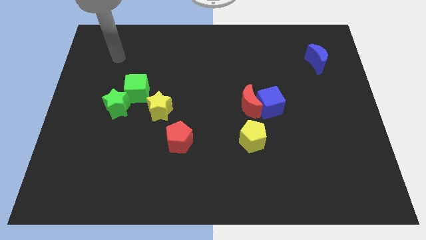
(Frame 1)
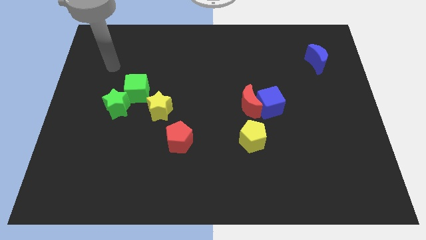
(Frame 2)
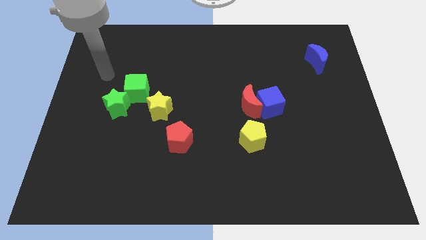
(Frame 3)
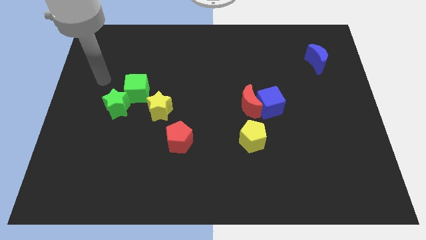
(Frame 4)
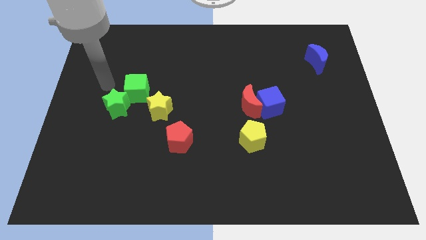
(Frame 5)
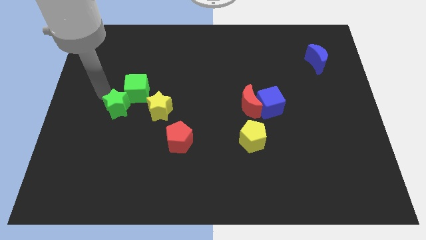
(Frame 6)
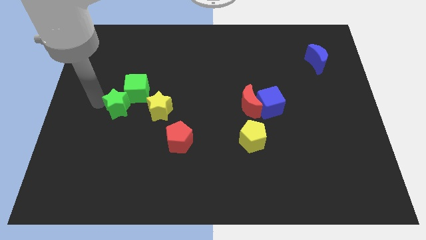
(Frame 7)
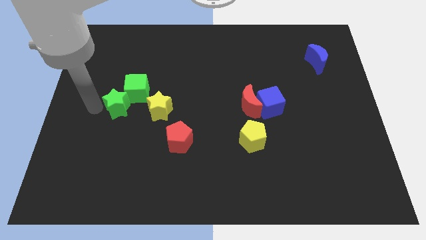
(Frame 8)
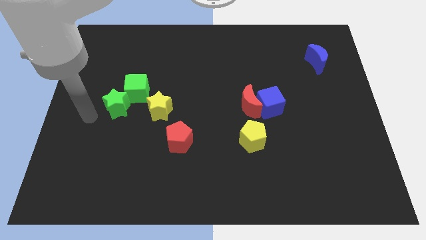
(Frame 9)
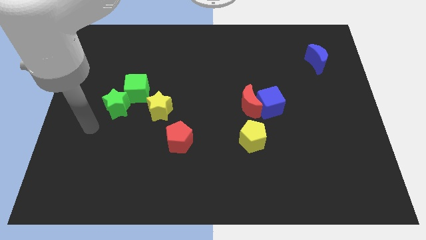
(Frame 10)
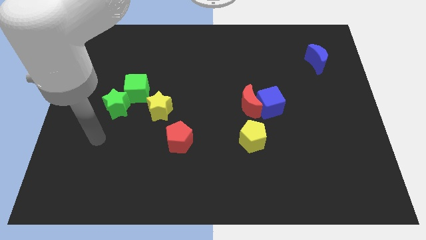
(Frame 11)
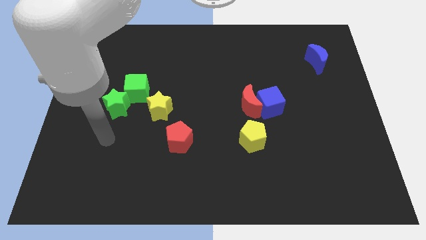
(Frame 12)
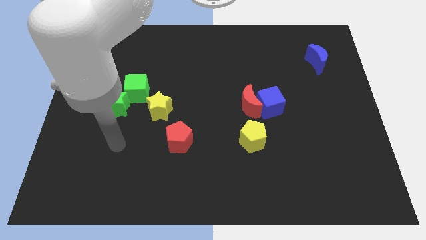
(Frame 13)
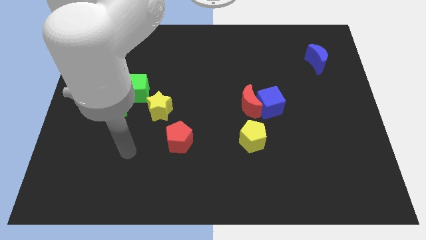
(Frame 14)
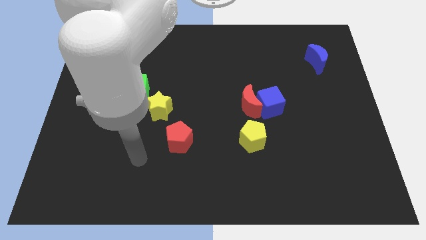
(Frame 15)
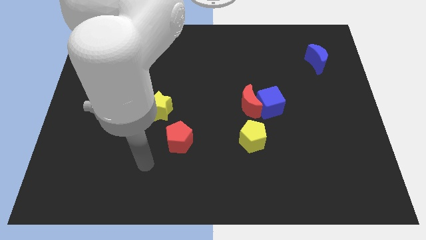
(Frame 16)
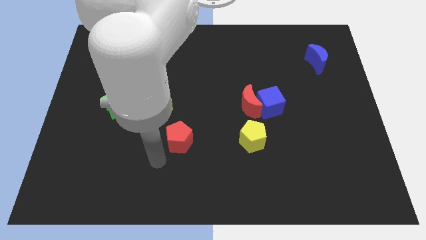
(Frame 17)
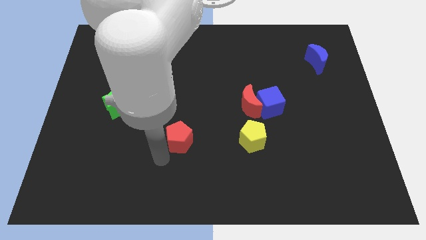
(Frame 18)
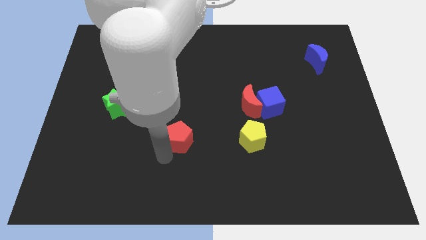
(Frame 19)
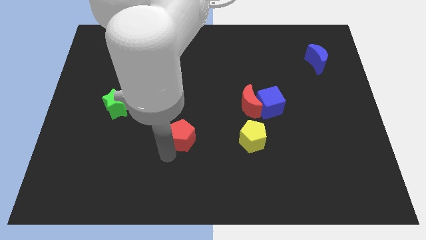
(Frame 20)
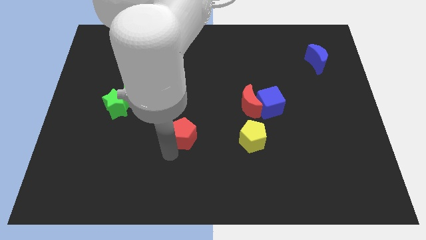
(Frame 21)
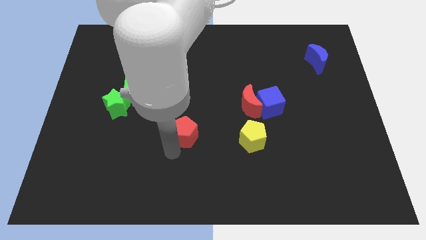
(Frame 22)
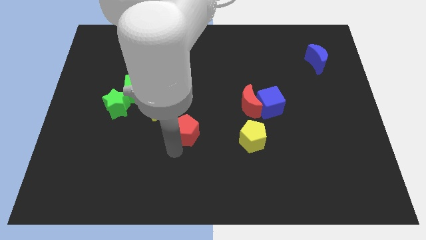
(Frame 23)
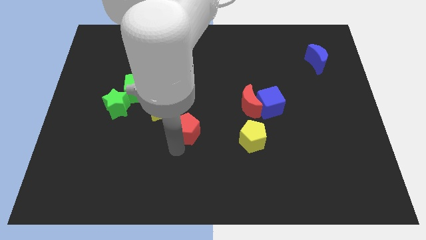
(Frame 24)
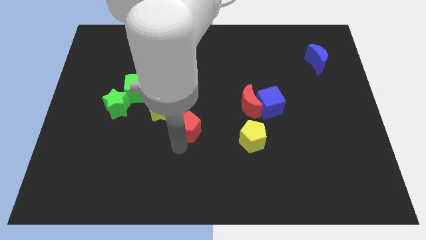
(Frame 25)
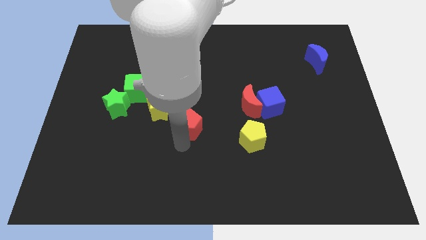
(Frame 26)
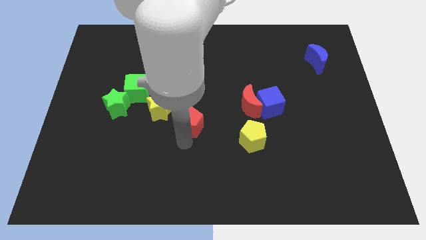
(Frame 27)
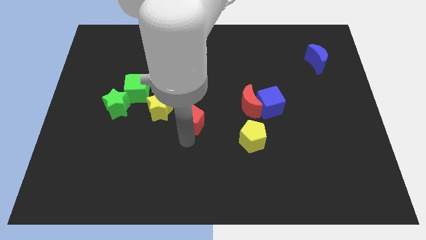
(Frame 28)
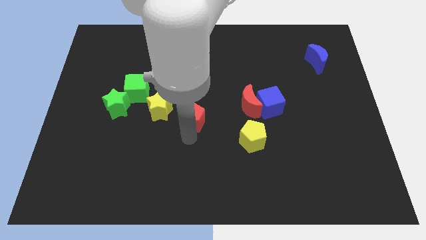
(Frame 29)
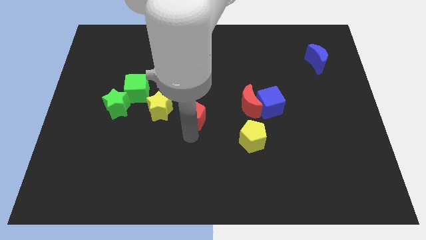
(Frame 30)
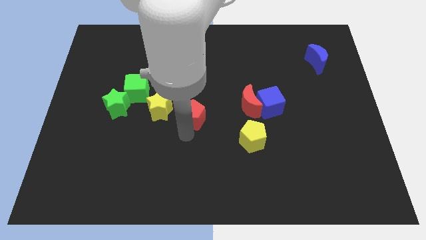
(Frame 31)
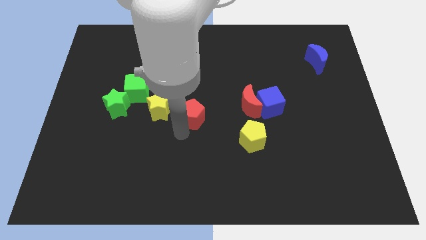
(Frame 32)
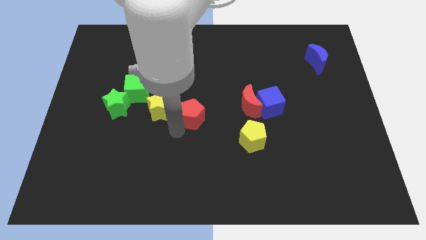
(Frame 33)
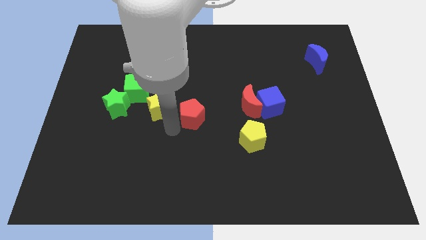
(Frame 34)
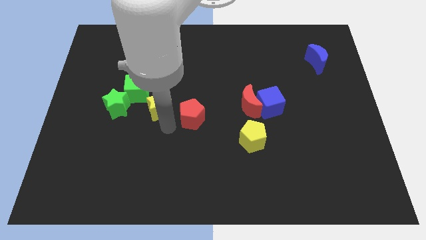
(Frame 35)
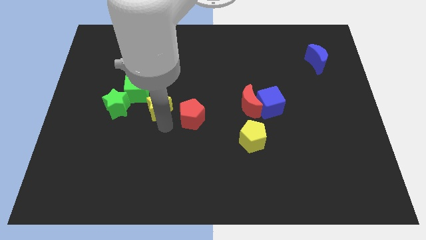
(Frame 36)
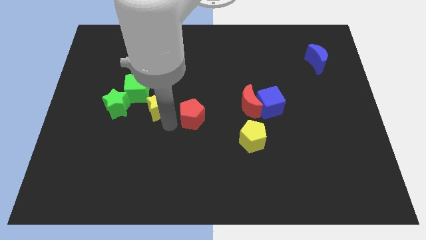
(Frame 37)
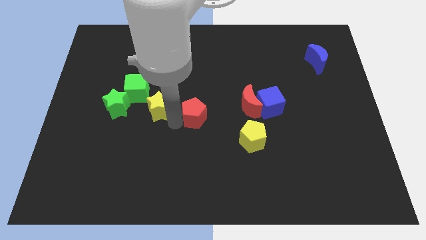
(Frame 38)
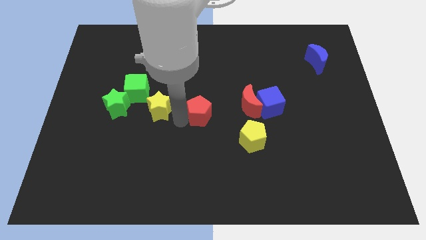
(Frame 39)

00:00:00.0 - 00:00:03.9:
slide the red pentagon a little bit upwards and then right

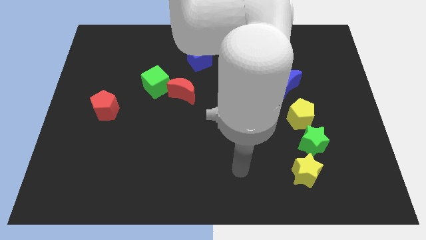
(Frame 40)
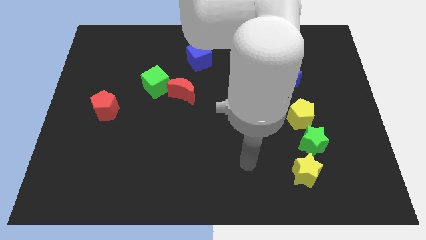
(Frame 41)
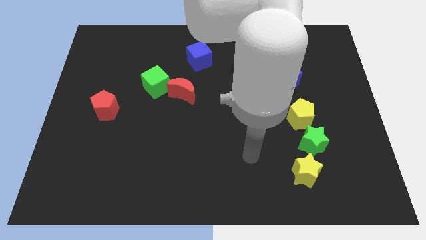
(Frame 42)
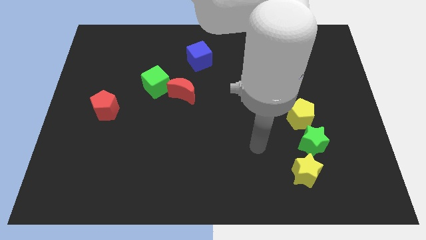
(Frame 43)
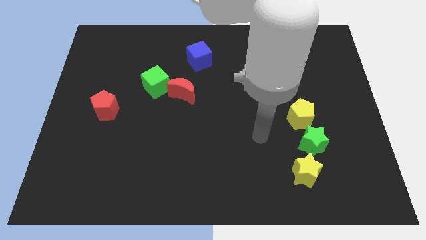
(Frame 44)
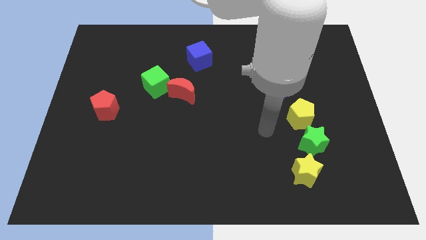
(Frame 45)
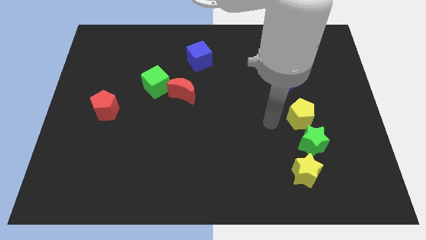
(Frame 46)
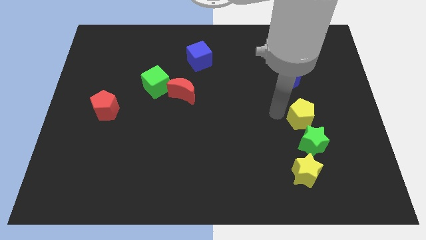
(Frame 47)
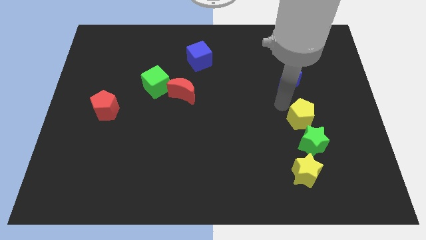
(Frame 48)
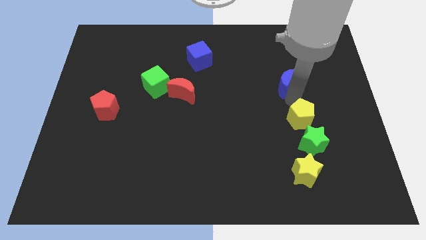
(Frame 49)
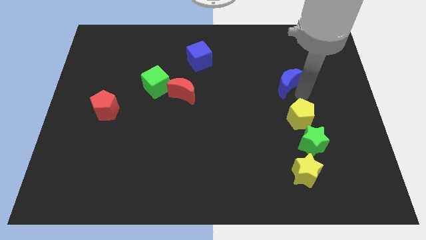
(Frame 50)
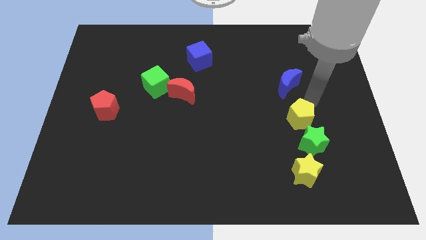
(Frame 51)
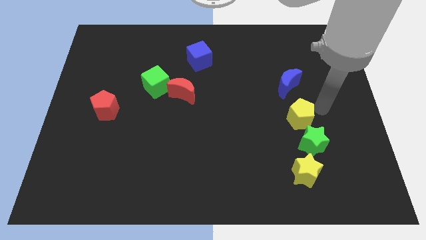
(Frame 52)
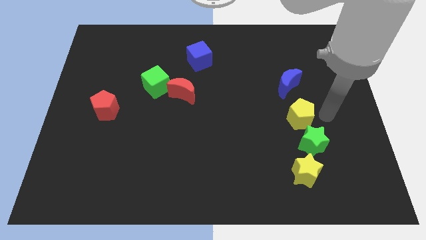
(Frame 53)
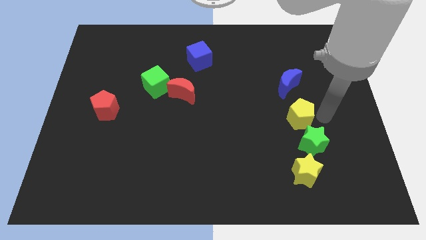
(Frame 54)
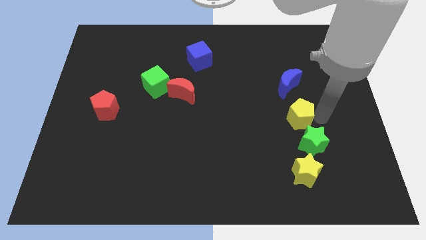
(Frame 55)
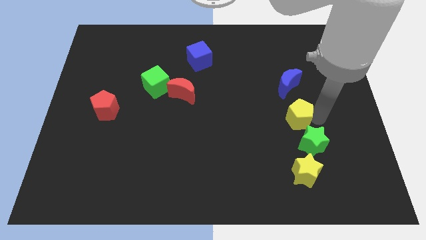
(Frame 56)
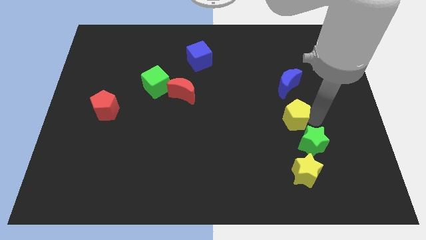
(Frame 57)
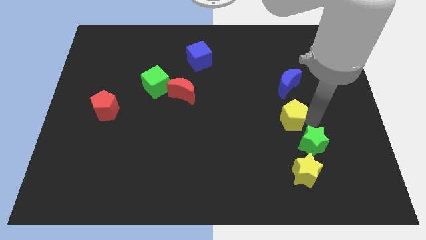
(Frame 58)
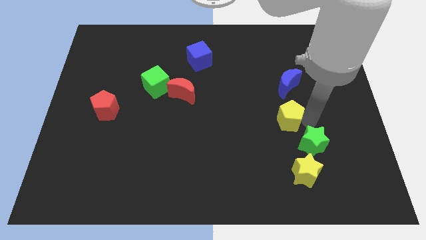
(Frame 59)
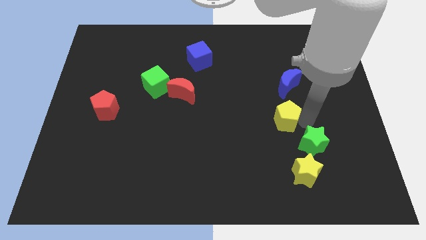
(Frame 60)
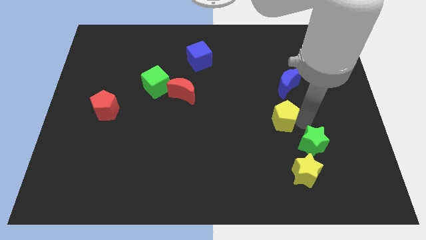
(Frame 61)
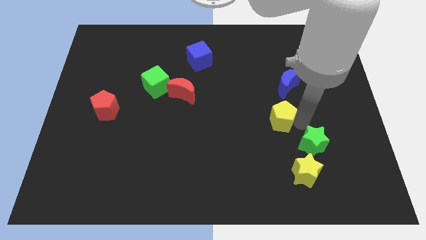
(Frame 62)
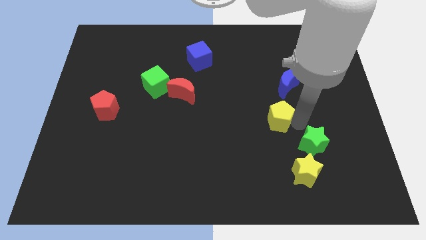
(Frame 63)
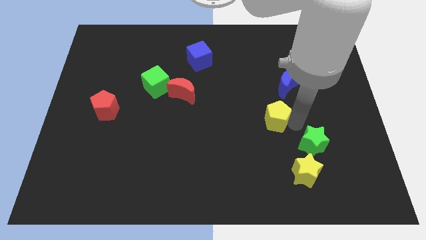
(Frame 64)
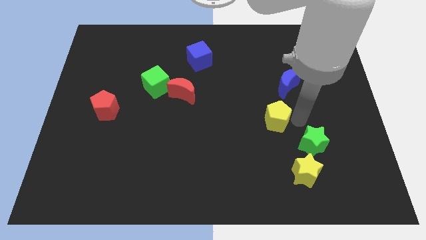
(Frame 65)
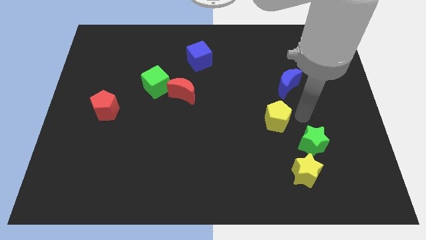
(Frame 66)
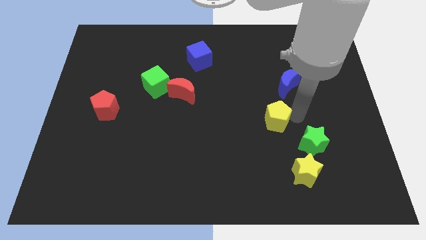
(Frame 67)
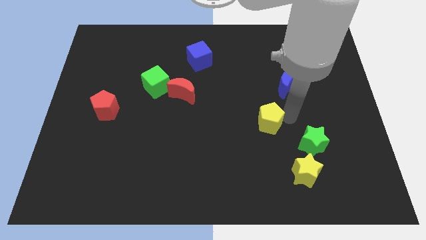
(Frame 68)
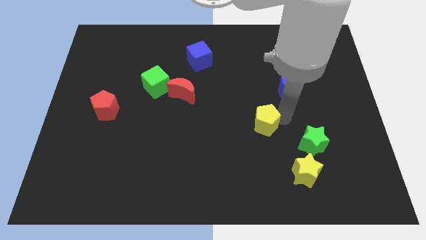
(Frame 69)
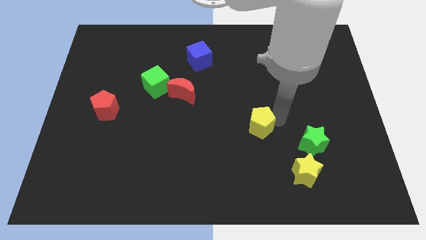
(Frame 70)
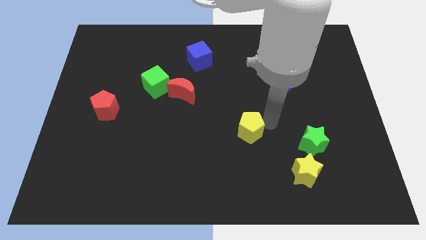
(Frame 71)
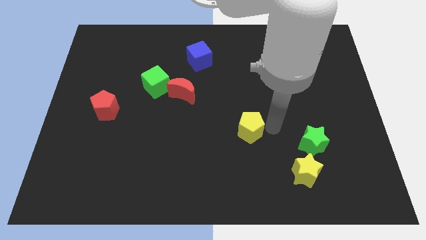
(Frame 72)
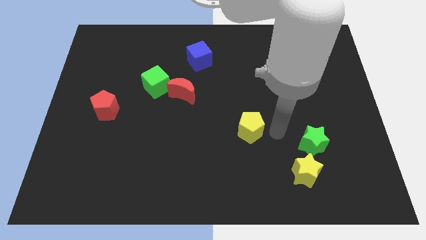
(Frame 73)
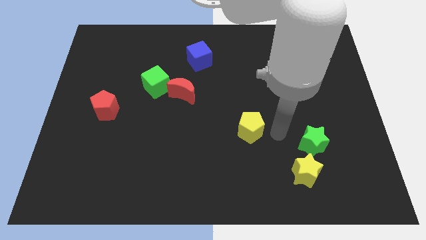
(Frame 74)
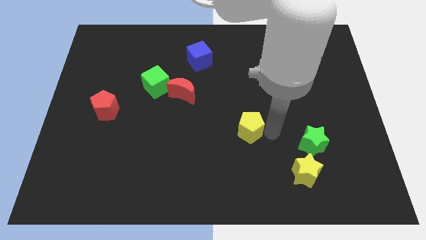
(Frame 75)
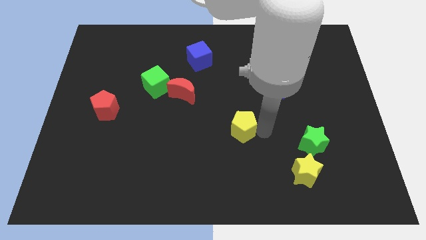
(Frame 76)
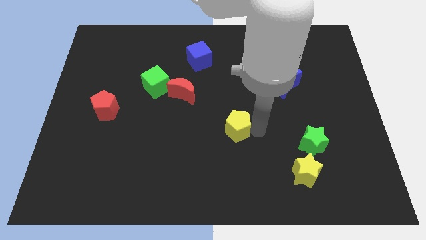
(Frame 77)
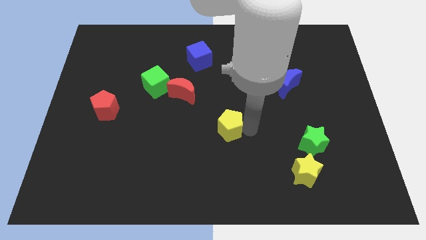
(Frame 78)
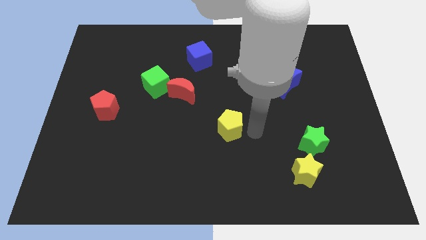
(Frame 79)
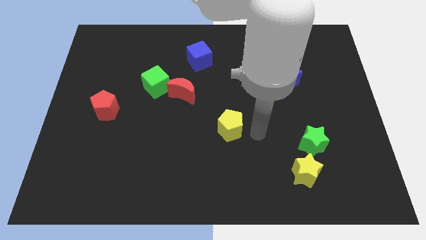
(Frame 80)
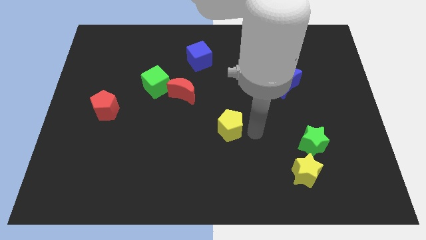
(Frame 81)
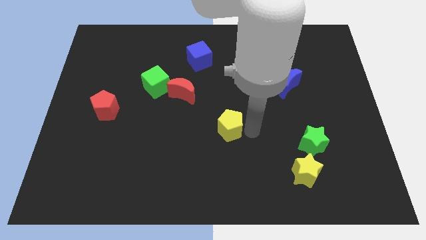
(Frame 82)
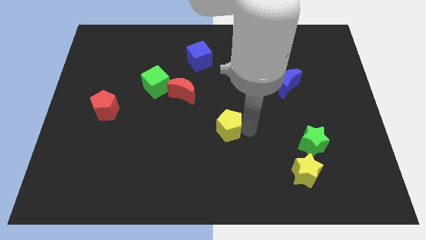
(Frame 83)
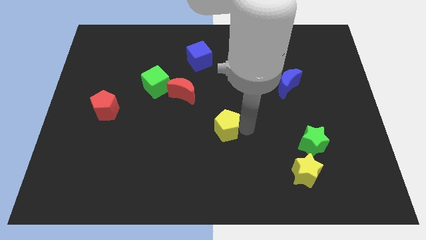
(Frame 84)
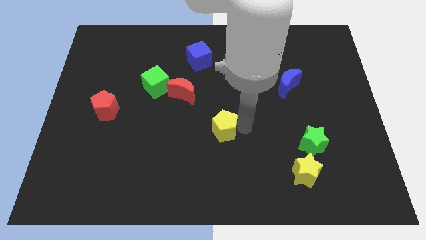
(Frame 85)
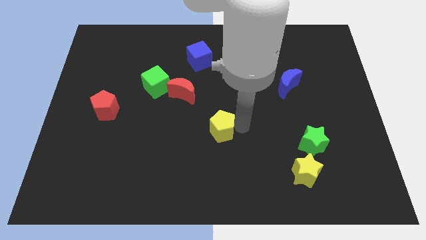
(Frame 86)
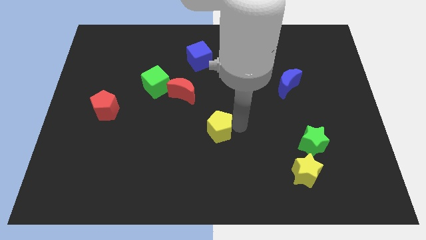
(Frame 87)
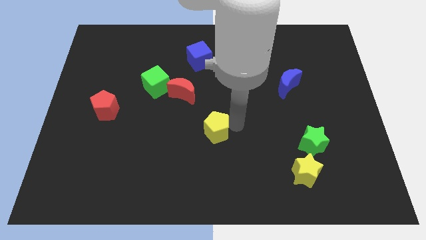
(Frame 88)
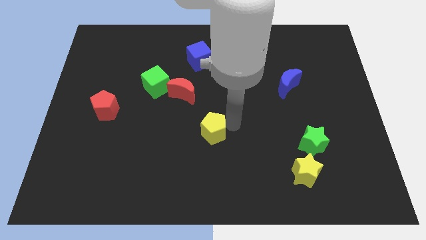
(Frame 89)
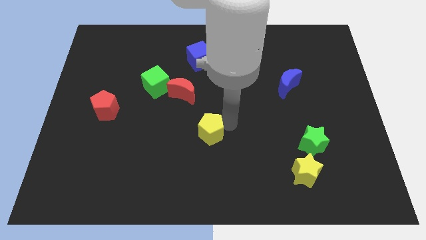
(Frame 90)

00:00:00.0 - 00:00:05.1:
slide the yellow pentagon left
